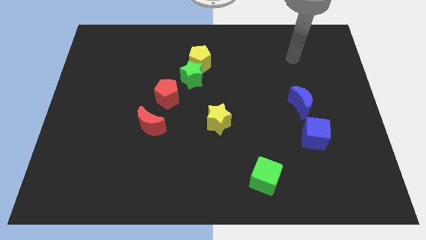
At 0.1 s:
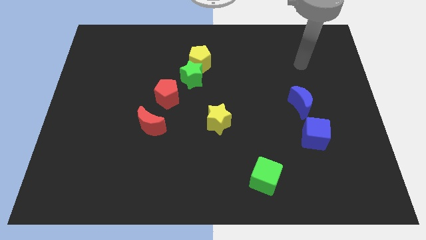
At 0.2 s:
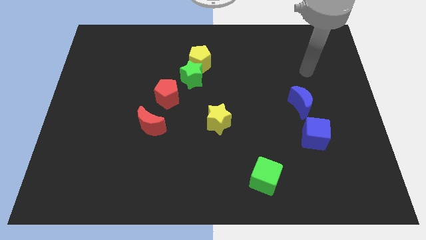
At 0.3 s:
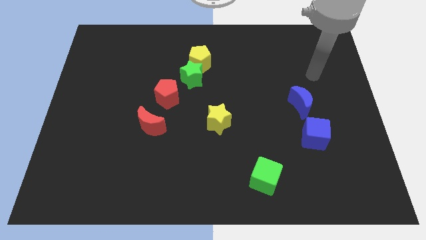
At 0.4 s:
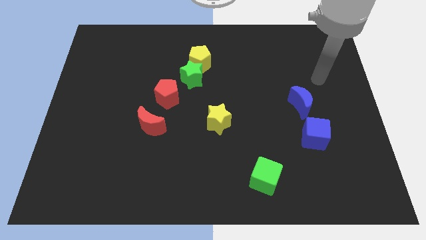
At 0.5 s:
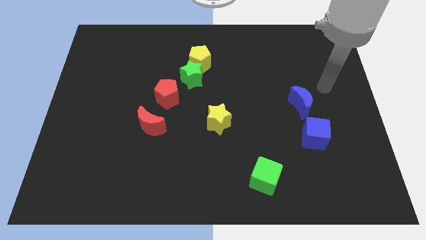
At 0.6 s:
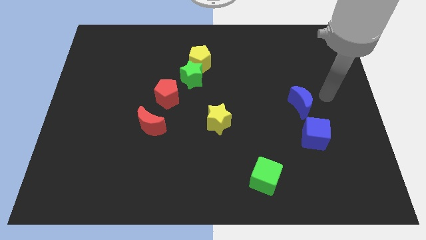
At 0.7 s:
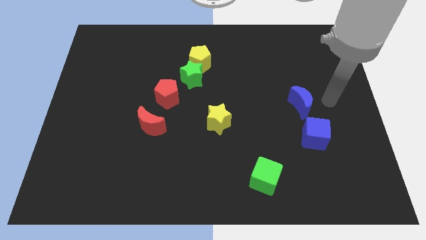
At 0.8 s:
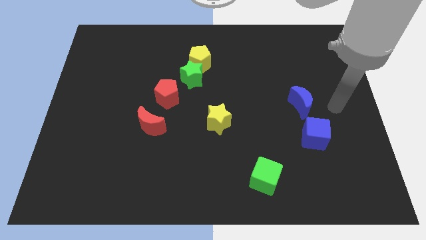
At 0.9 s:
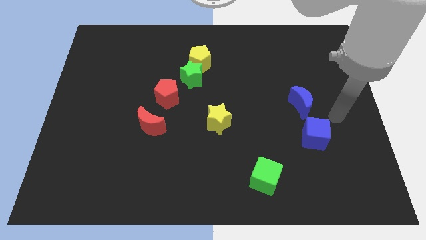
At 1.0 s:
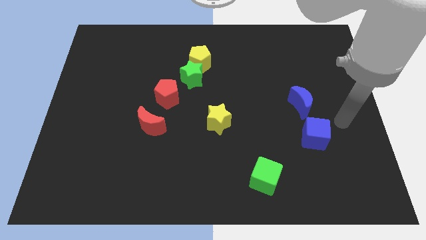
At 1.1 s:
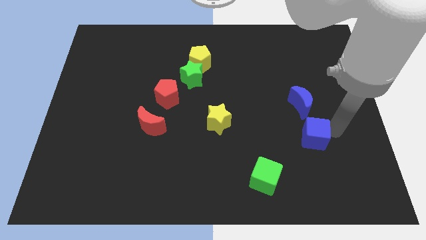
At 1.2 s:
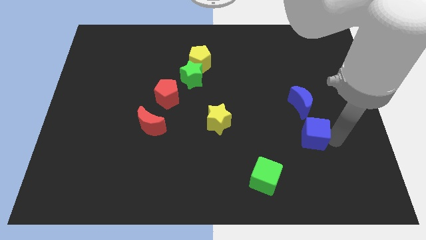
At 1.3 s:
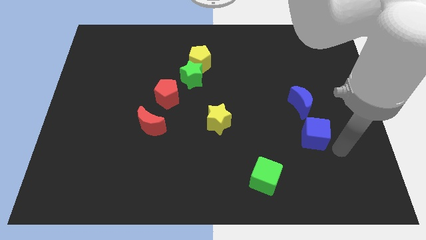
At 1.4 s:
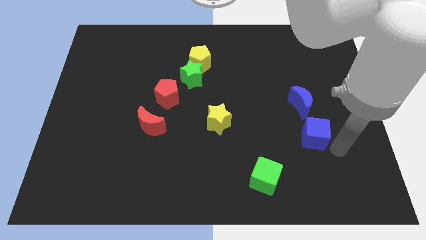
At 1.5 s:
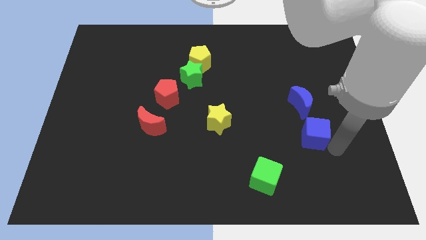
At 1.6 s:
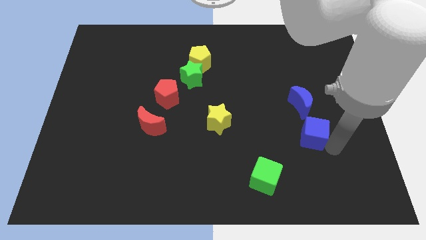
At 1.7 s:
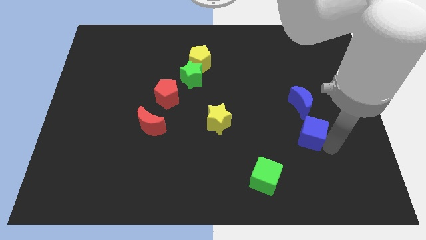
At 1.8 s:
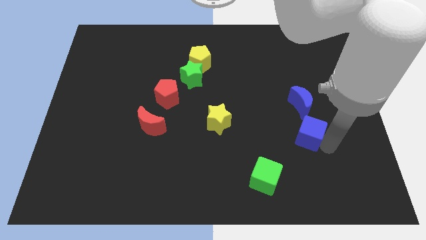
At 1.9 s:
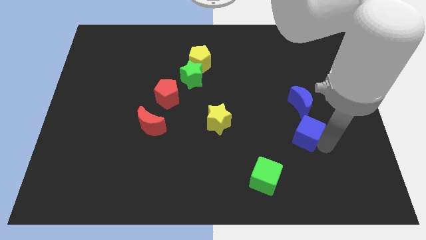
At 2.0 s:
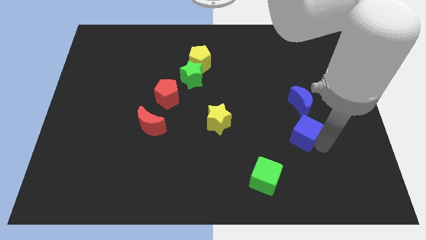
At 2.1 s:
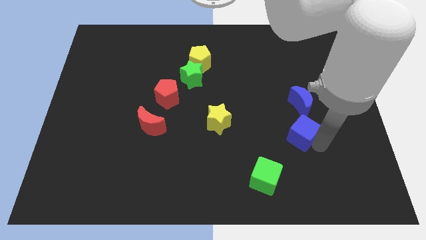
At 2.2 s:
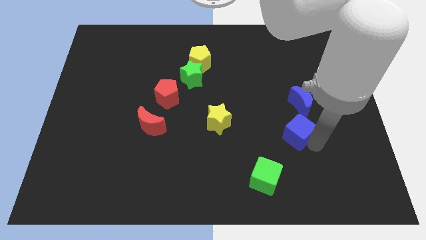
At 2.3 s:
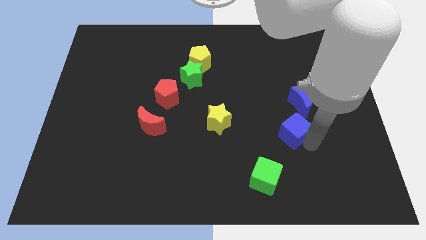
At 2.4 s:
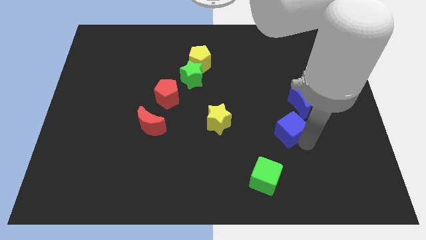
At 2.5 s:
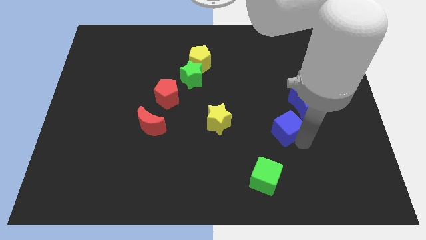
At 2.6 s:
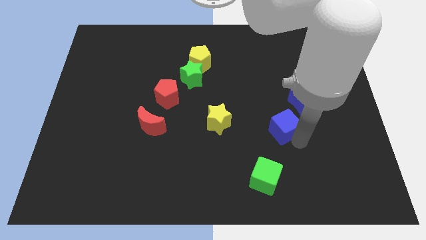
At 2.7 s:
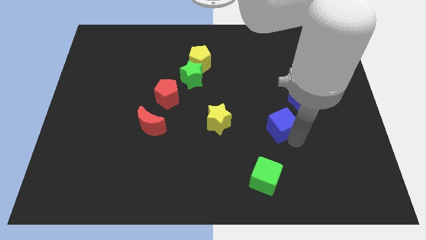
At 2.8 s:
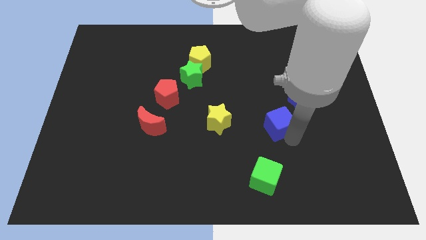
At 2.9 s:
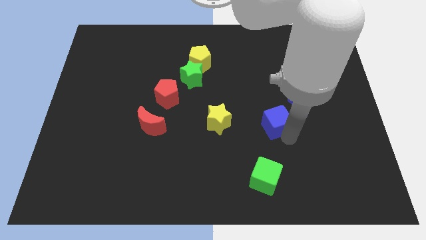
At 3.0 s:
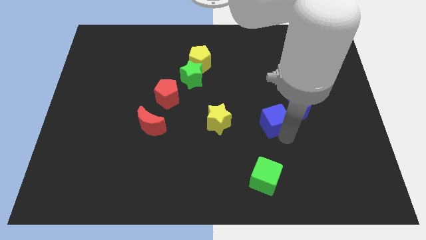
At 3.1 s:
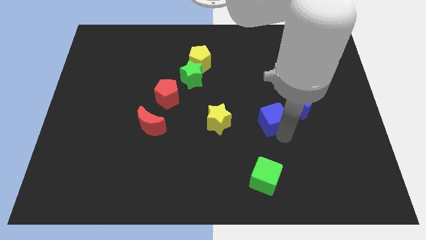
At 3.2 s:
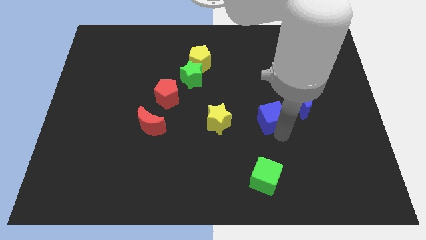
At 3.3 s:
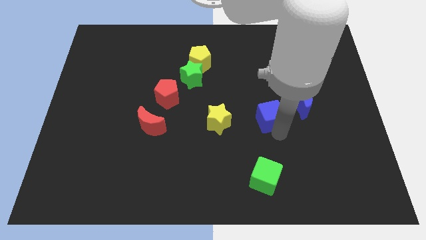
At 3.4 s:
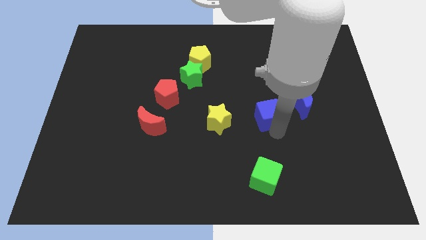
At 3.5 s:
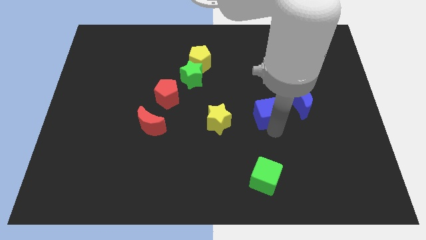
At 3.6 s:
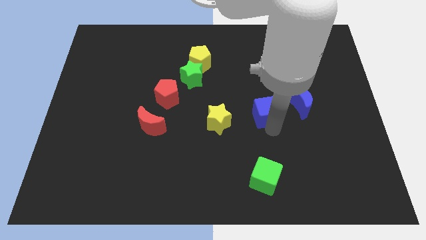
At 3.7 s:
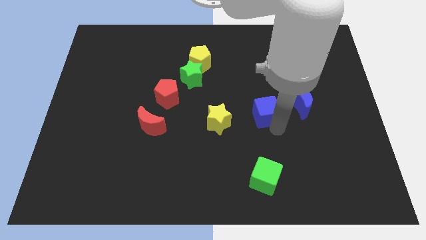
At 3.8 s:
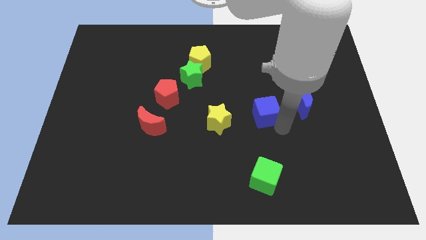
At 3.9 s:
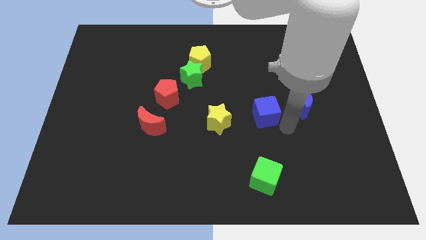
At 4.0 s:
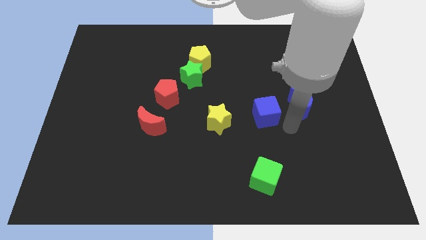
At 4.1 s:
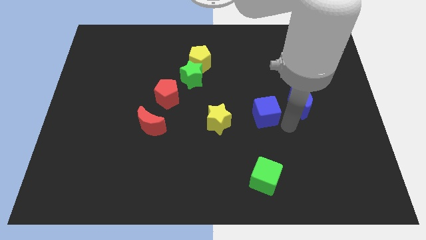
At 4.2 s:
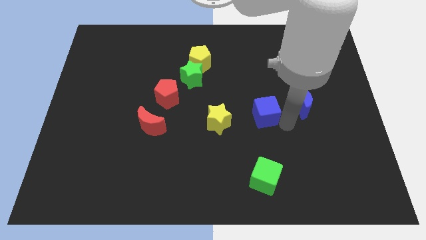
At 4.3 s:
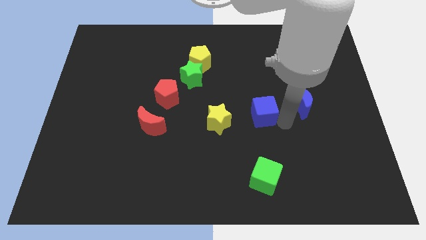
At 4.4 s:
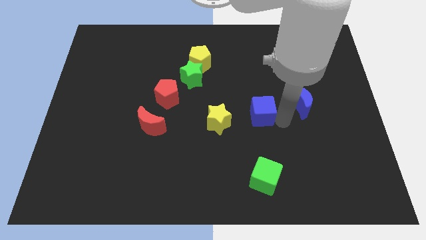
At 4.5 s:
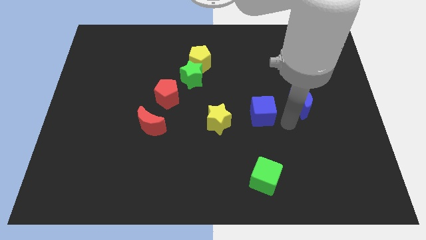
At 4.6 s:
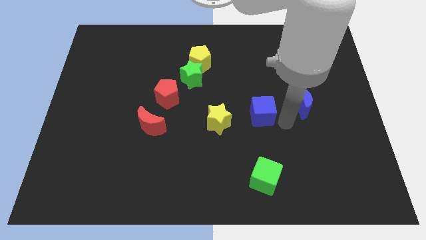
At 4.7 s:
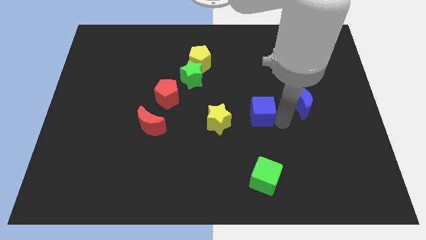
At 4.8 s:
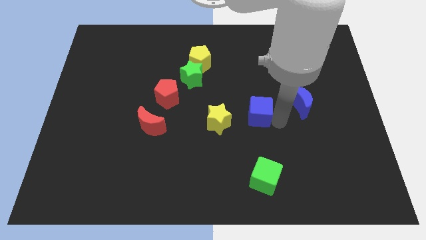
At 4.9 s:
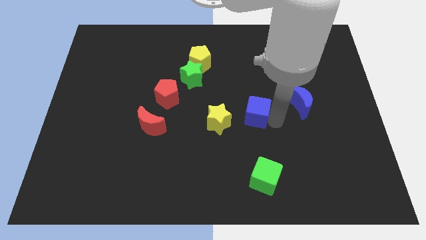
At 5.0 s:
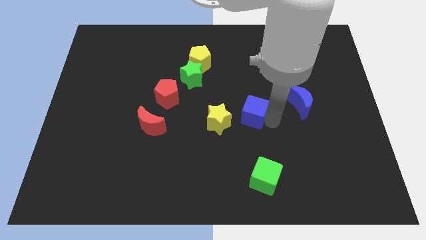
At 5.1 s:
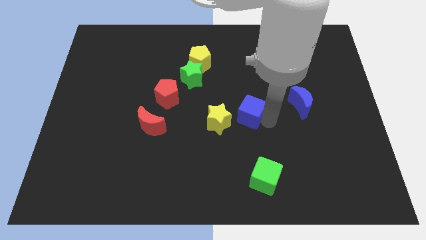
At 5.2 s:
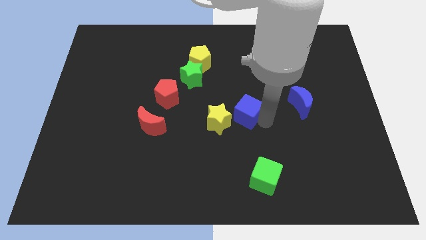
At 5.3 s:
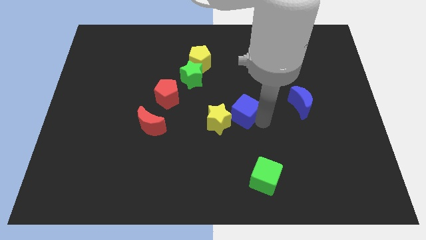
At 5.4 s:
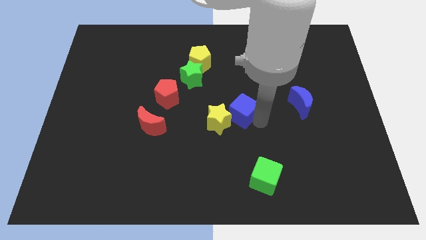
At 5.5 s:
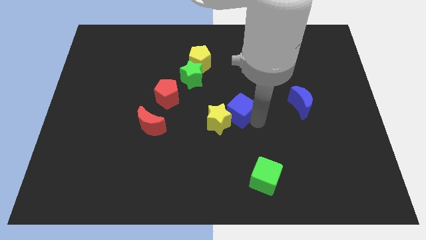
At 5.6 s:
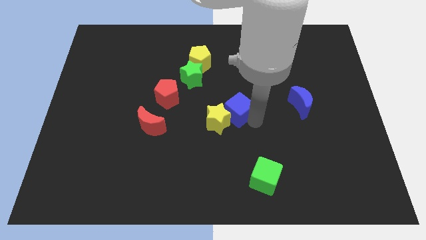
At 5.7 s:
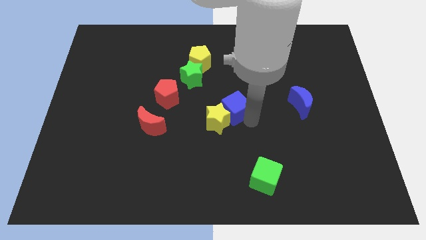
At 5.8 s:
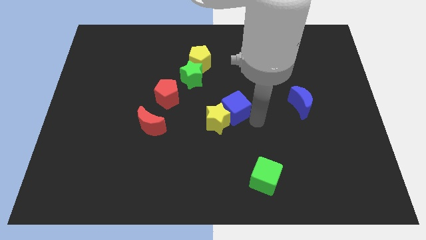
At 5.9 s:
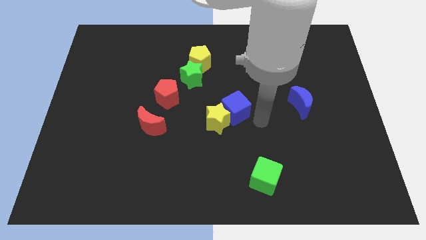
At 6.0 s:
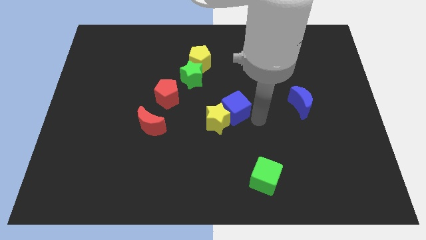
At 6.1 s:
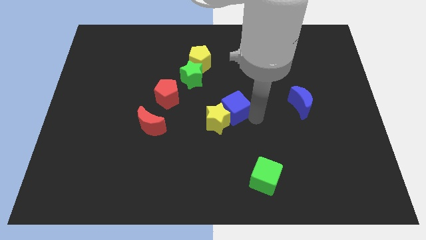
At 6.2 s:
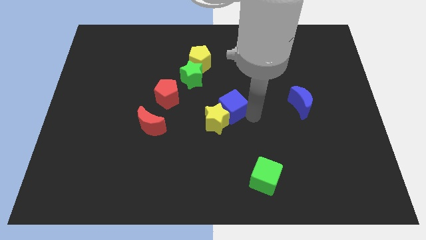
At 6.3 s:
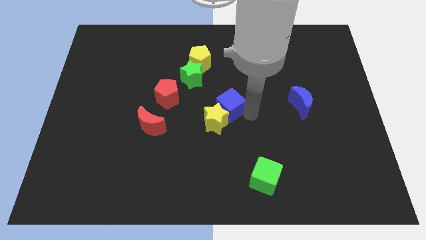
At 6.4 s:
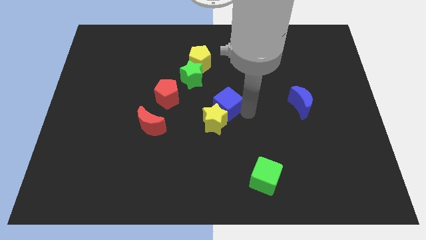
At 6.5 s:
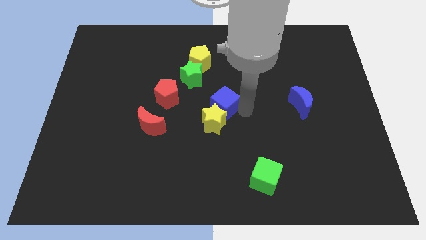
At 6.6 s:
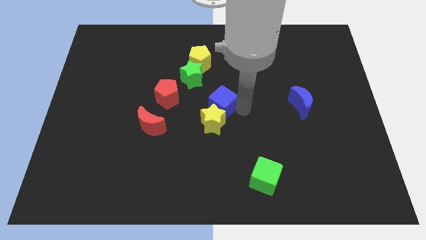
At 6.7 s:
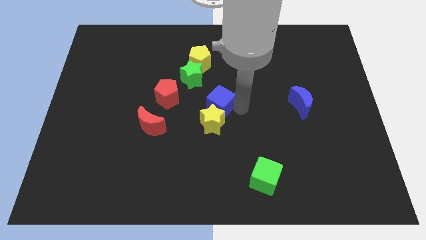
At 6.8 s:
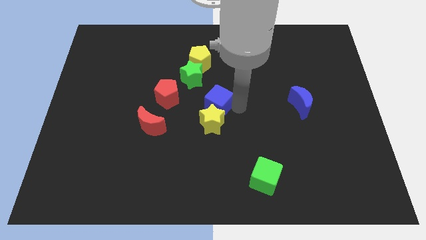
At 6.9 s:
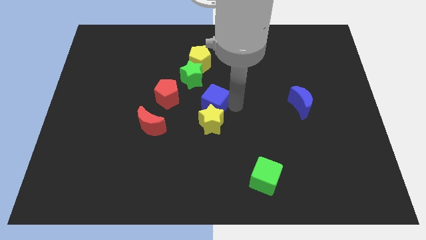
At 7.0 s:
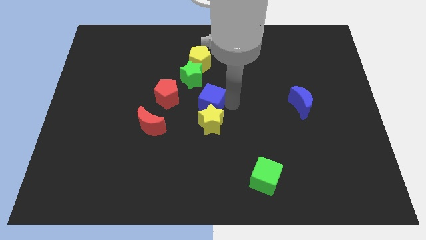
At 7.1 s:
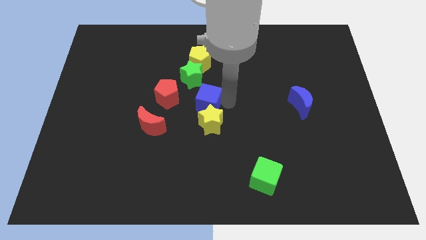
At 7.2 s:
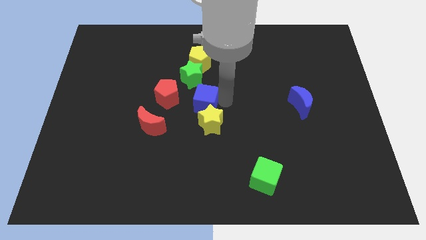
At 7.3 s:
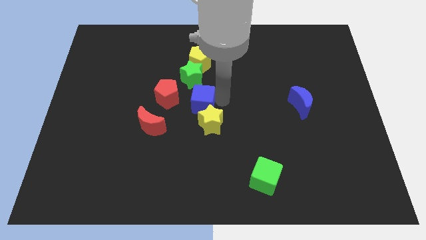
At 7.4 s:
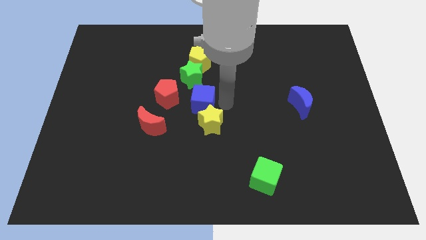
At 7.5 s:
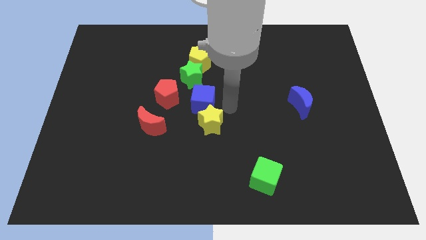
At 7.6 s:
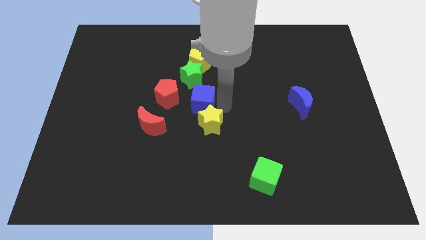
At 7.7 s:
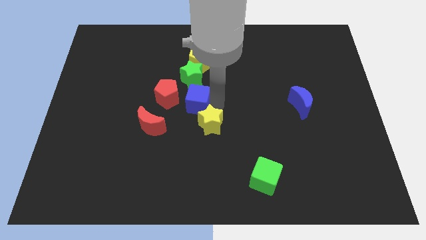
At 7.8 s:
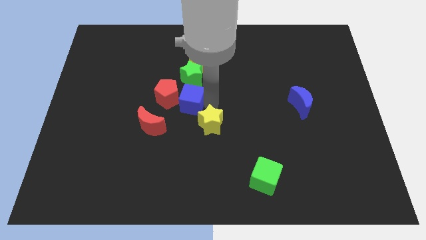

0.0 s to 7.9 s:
slide the blue cube to the red pentagon
